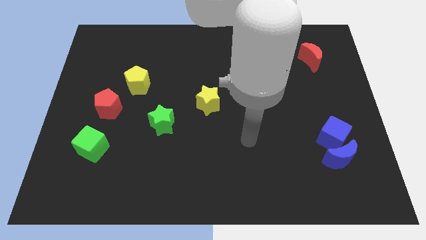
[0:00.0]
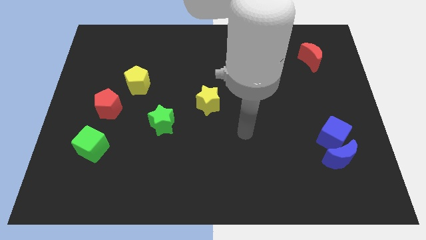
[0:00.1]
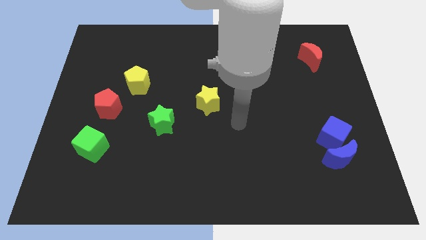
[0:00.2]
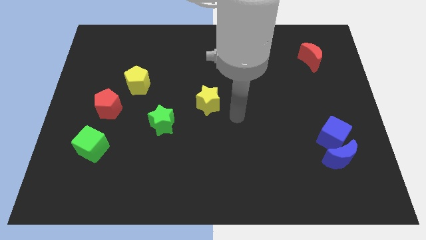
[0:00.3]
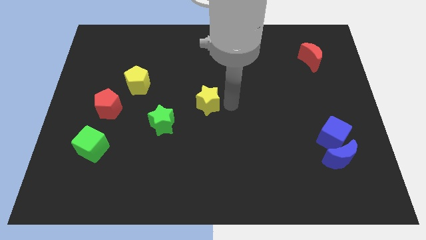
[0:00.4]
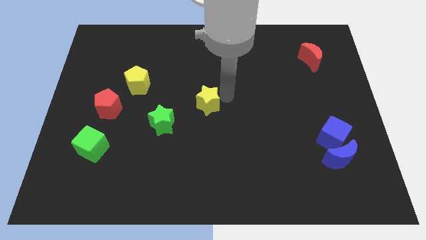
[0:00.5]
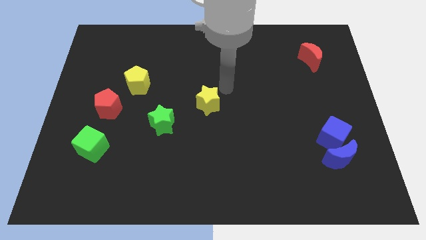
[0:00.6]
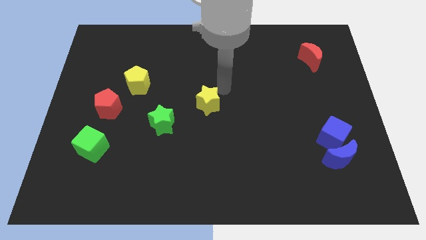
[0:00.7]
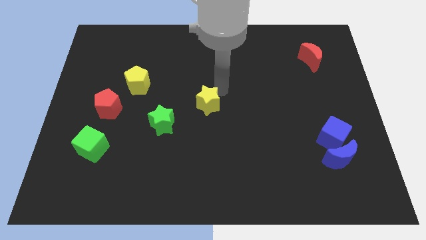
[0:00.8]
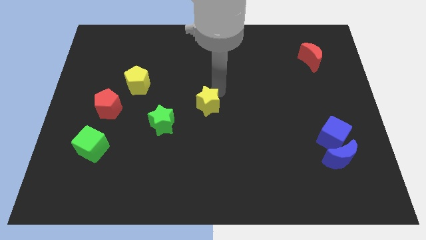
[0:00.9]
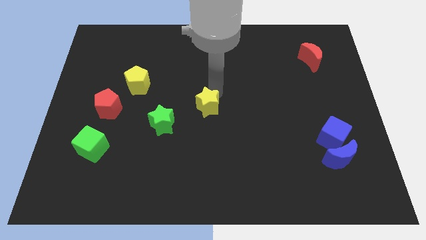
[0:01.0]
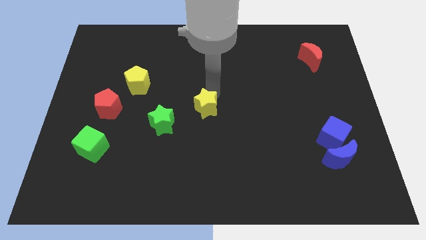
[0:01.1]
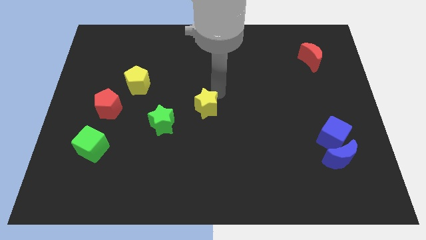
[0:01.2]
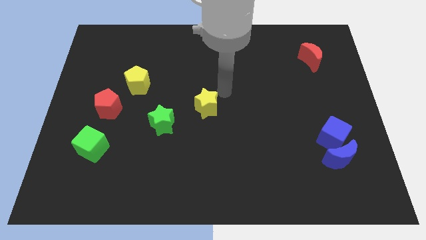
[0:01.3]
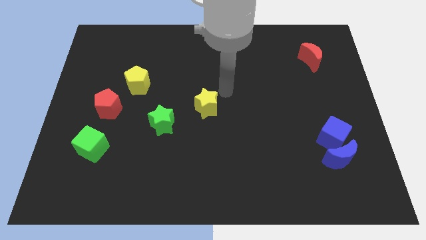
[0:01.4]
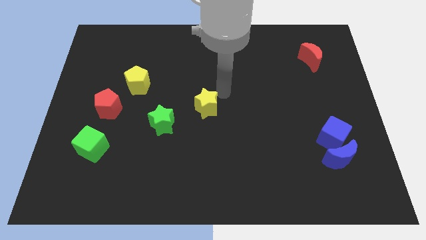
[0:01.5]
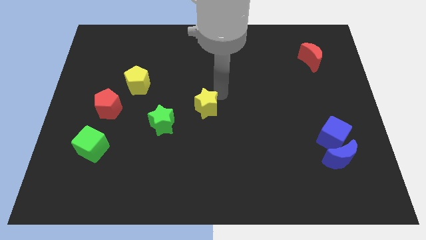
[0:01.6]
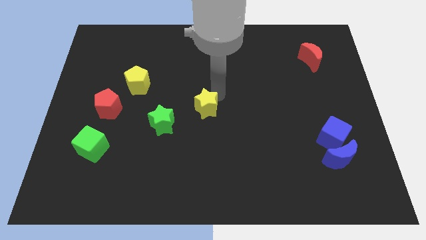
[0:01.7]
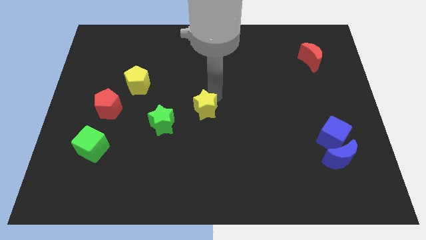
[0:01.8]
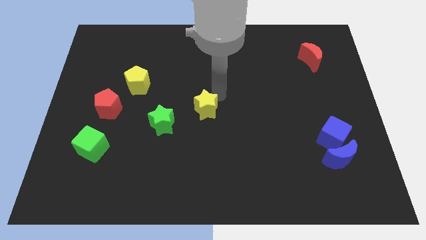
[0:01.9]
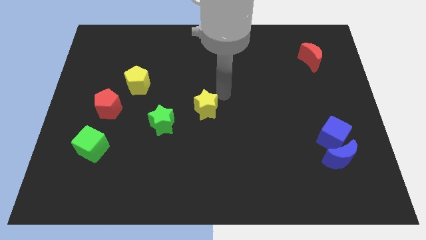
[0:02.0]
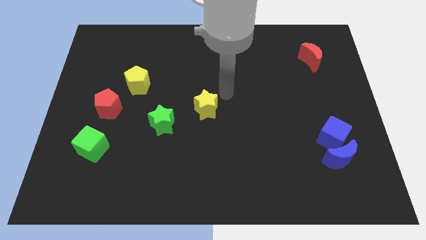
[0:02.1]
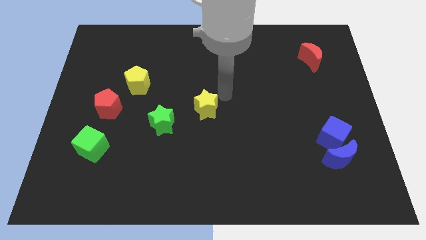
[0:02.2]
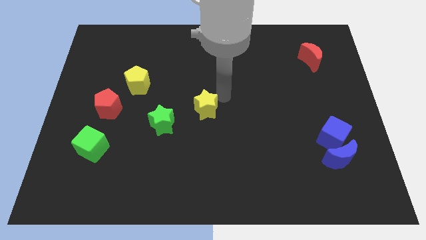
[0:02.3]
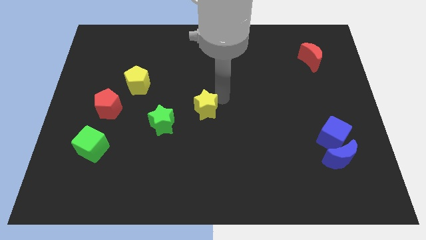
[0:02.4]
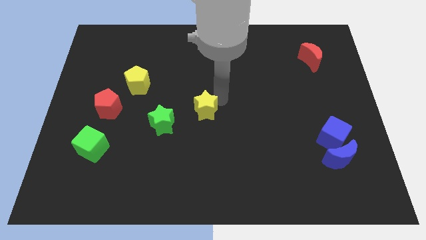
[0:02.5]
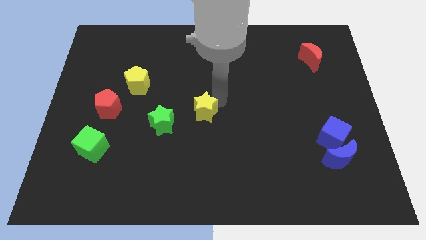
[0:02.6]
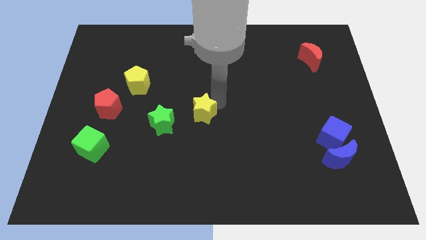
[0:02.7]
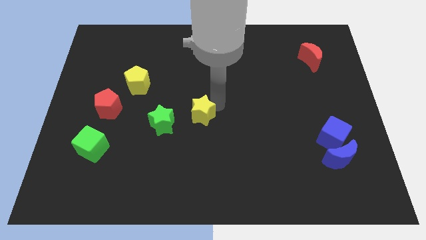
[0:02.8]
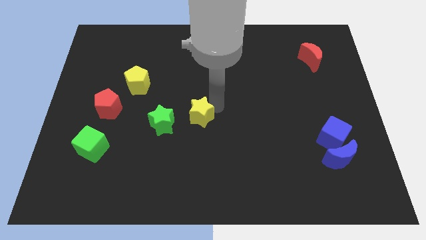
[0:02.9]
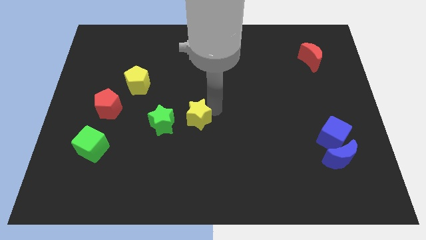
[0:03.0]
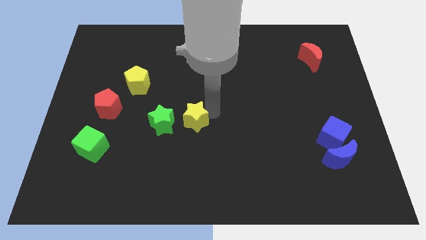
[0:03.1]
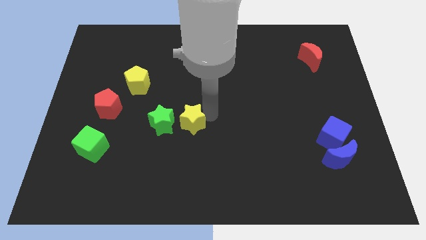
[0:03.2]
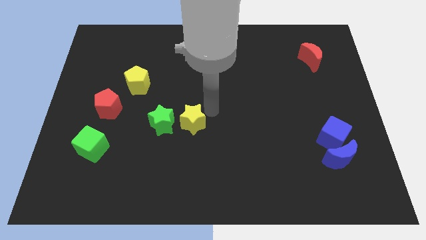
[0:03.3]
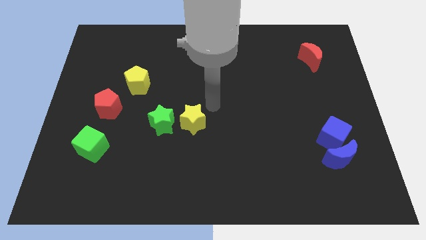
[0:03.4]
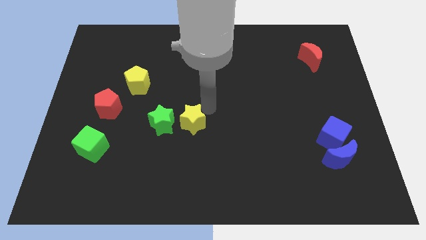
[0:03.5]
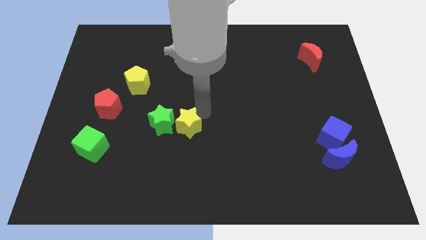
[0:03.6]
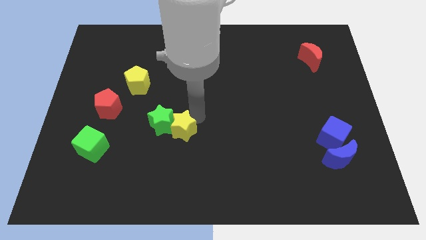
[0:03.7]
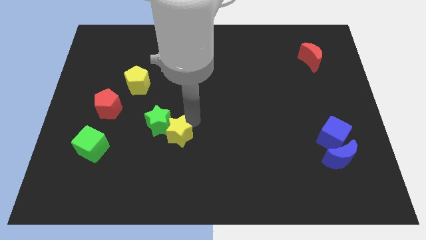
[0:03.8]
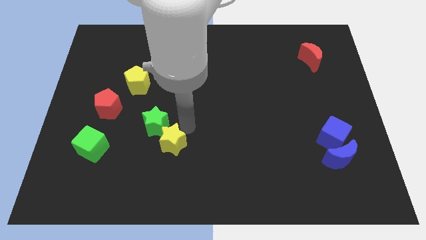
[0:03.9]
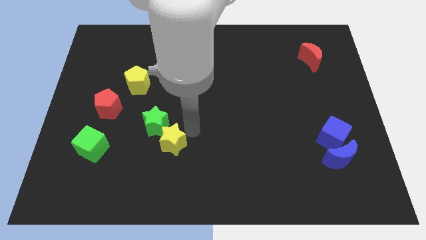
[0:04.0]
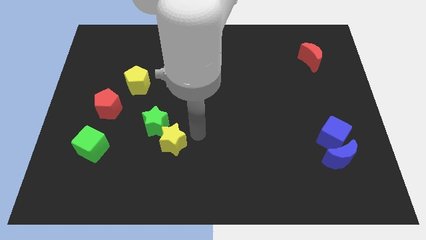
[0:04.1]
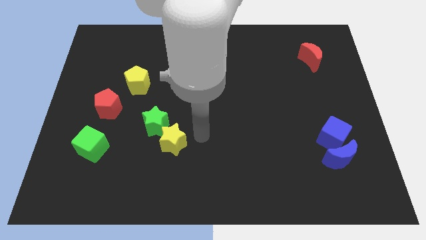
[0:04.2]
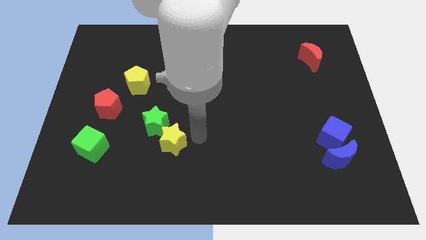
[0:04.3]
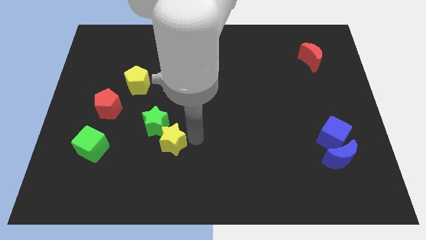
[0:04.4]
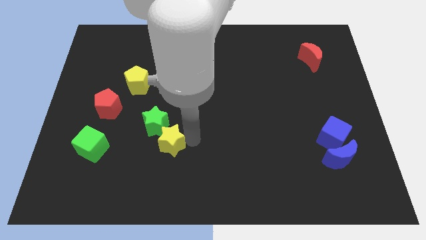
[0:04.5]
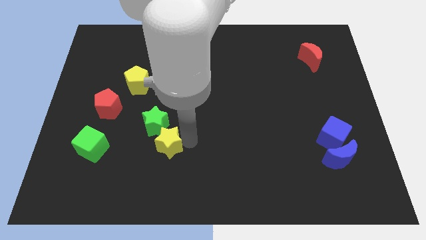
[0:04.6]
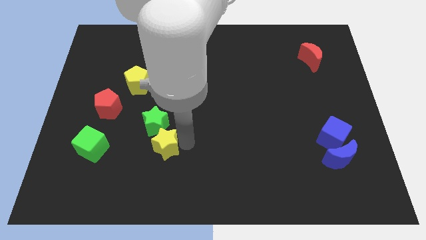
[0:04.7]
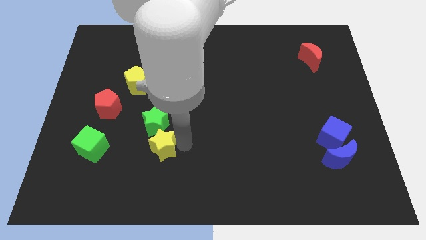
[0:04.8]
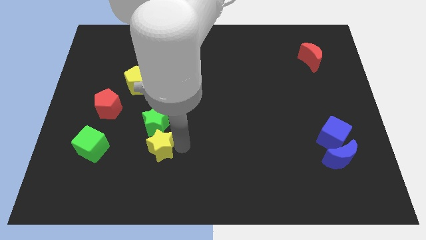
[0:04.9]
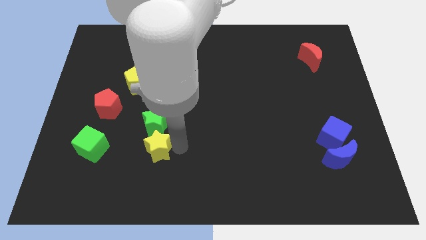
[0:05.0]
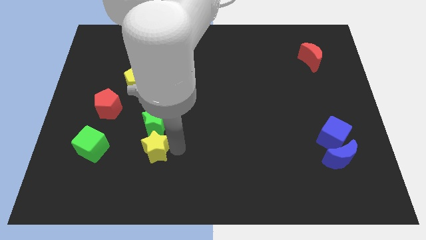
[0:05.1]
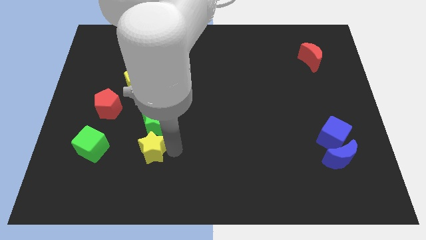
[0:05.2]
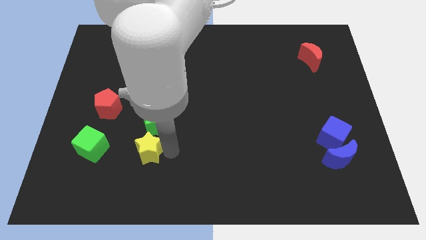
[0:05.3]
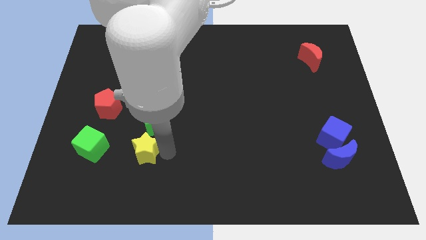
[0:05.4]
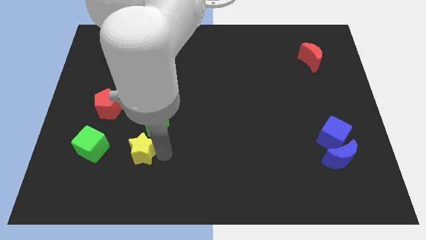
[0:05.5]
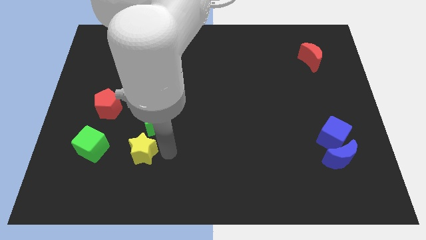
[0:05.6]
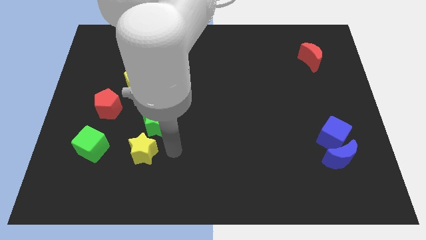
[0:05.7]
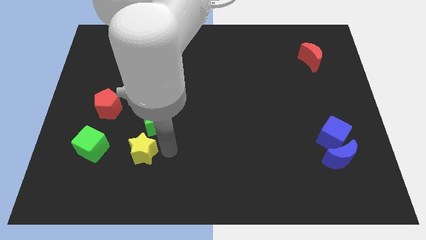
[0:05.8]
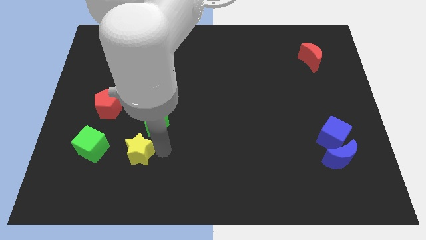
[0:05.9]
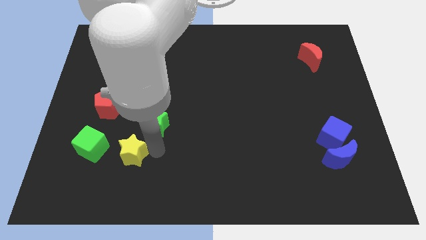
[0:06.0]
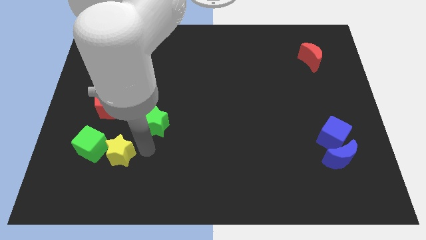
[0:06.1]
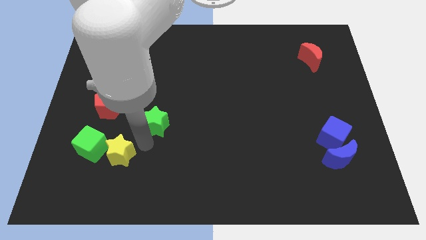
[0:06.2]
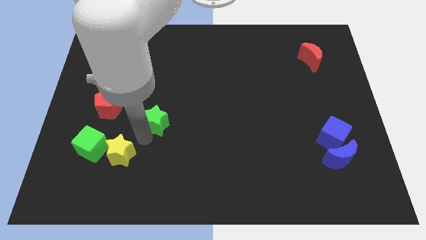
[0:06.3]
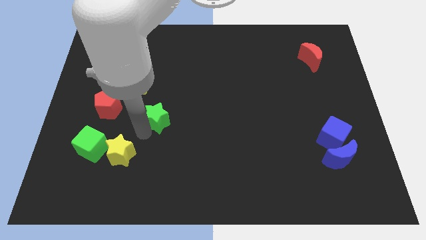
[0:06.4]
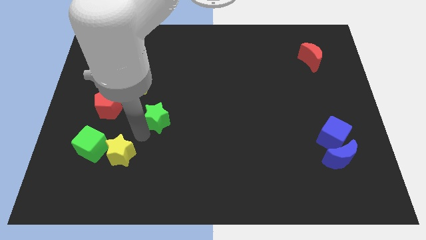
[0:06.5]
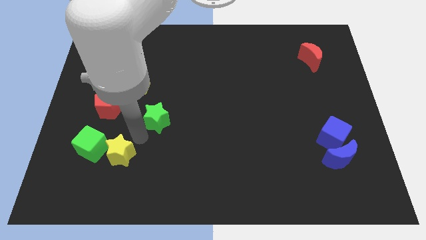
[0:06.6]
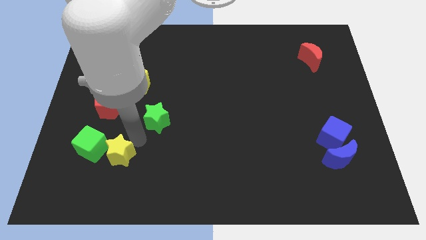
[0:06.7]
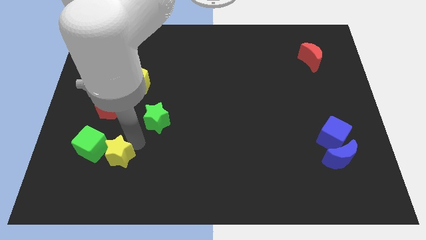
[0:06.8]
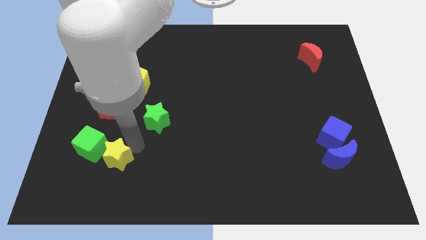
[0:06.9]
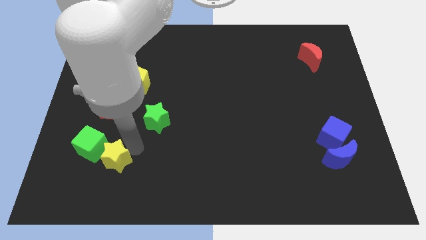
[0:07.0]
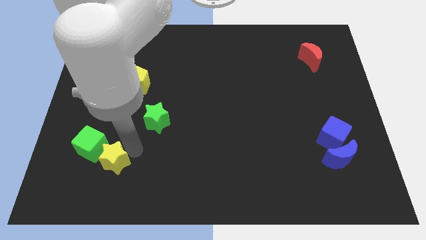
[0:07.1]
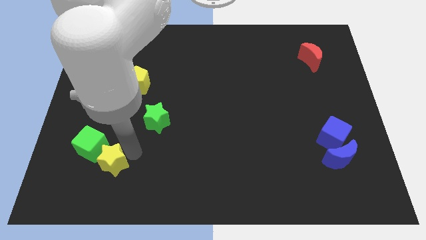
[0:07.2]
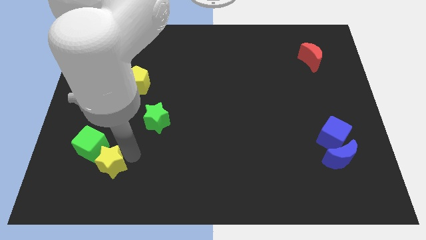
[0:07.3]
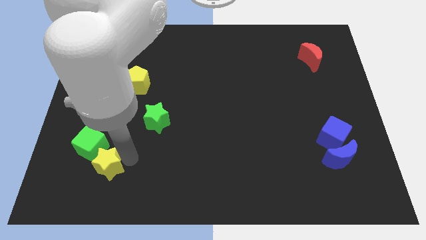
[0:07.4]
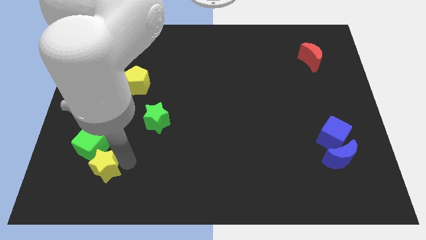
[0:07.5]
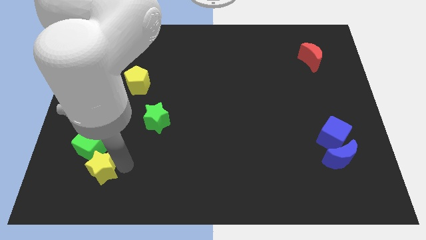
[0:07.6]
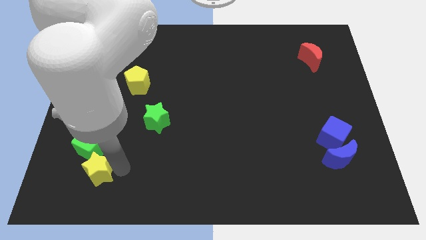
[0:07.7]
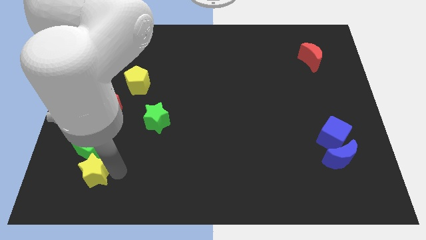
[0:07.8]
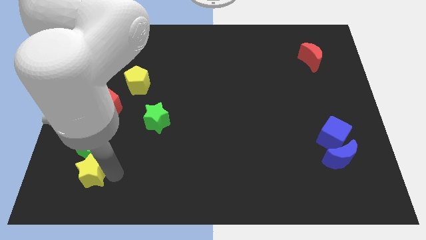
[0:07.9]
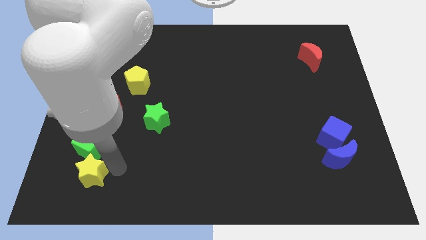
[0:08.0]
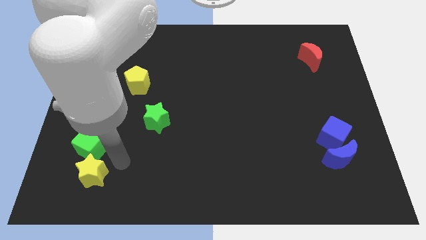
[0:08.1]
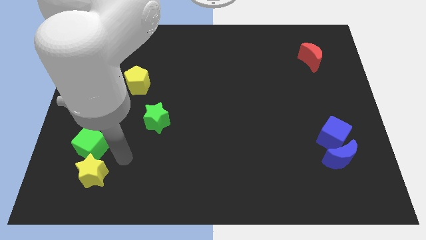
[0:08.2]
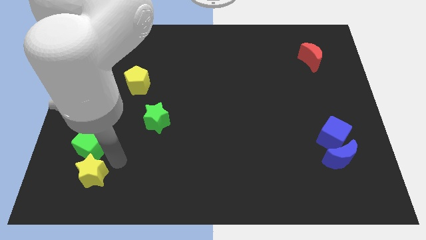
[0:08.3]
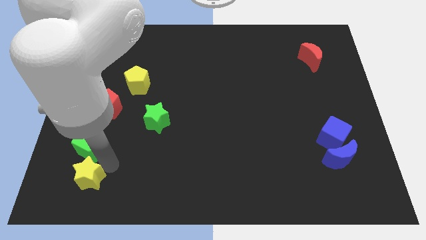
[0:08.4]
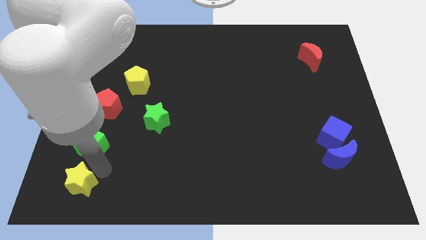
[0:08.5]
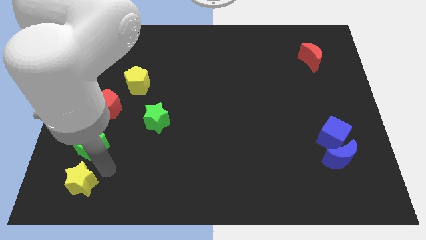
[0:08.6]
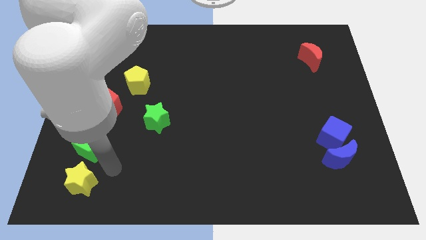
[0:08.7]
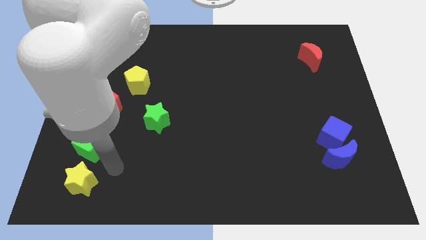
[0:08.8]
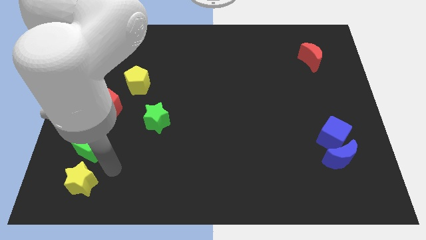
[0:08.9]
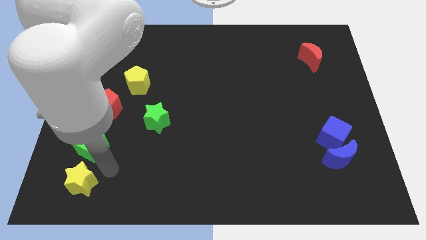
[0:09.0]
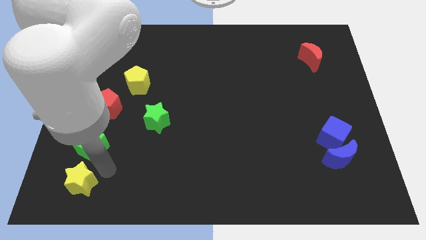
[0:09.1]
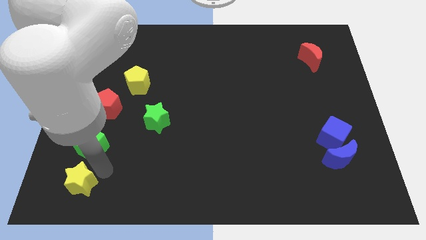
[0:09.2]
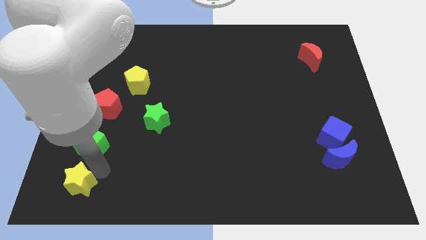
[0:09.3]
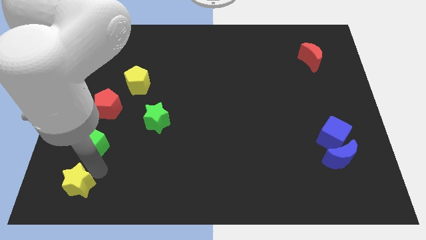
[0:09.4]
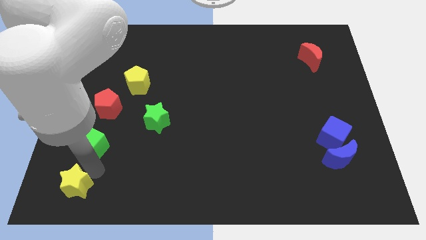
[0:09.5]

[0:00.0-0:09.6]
put the yellow star to the bottom left corner
